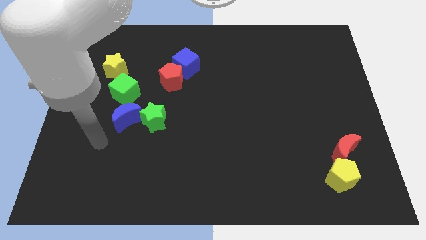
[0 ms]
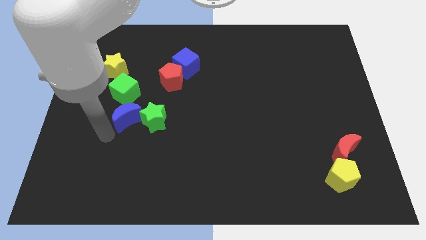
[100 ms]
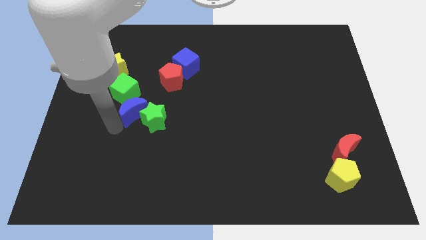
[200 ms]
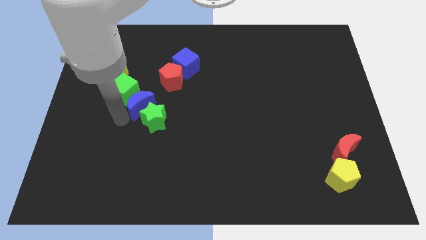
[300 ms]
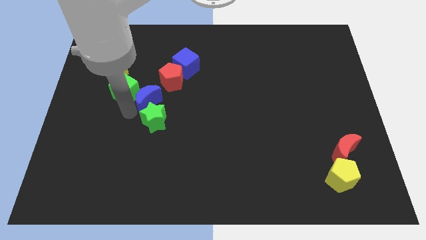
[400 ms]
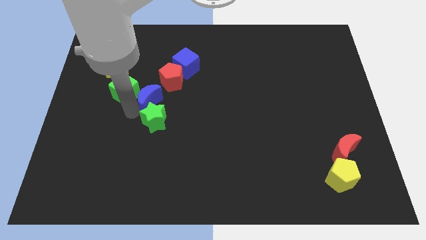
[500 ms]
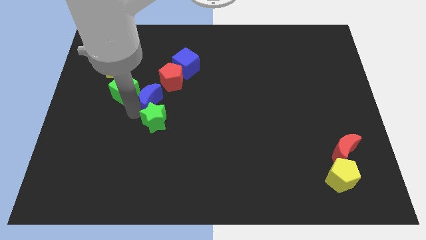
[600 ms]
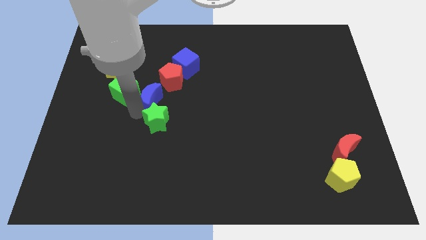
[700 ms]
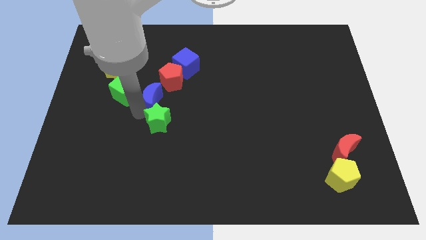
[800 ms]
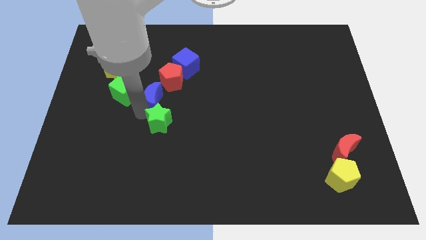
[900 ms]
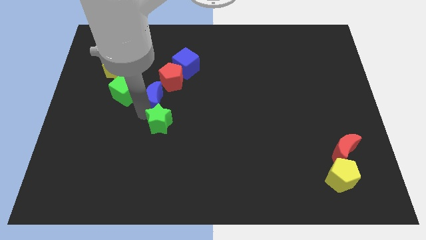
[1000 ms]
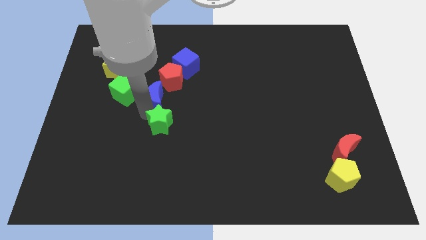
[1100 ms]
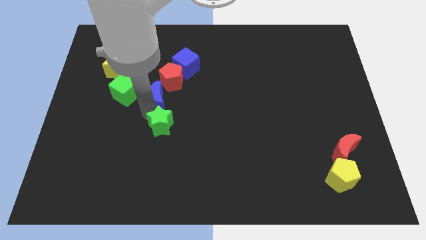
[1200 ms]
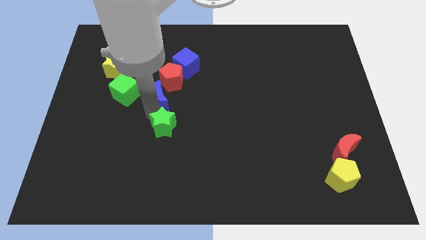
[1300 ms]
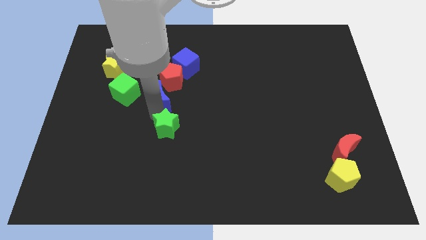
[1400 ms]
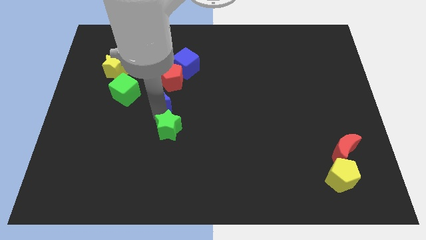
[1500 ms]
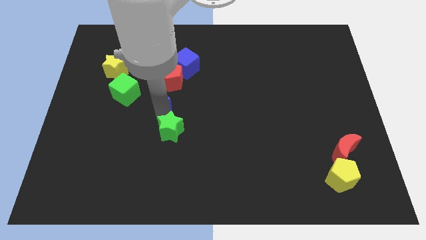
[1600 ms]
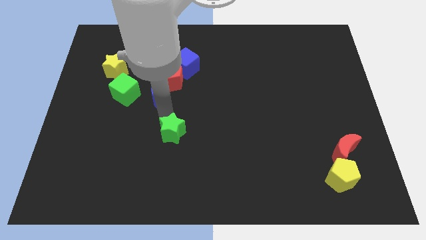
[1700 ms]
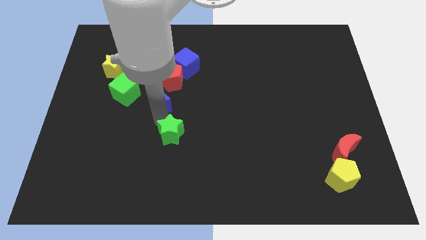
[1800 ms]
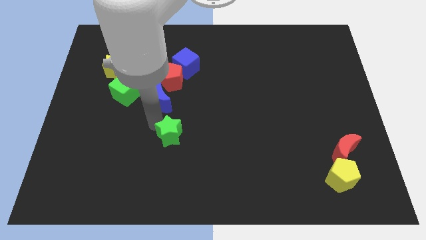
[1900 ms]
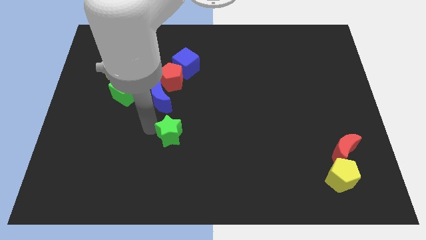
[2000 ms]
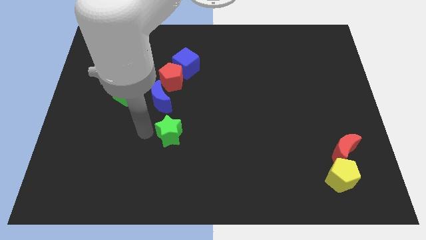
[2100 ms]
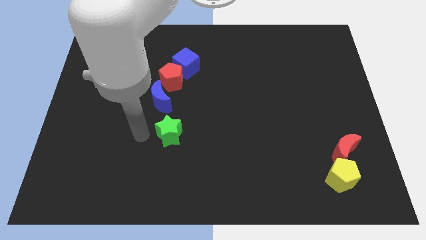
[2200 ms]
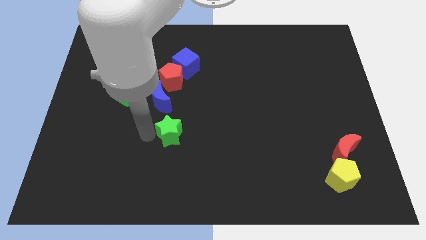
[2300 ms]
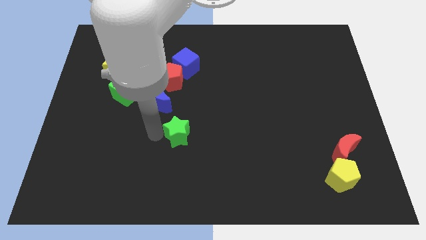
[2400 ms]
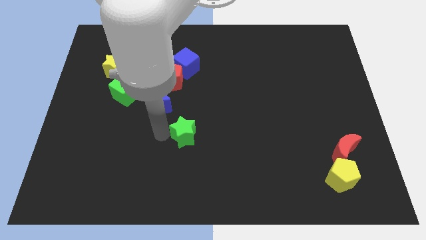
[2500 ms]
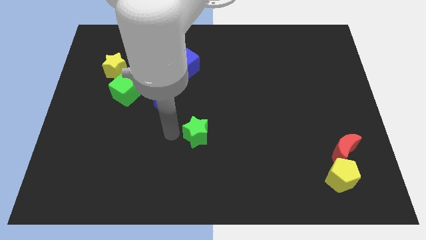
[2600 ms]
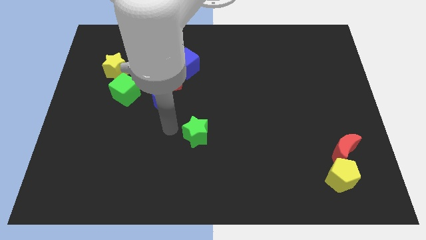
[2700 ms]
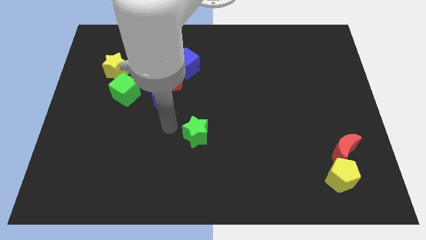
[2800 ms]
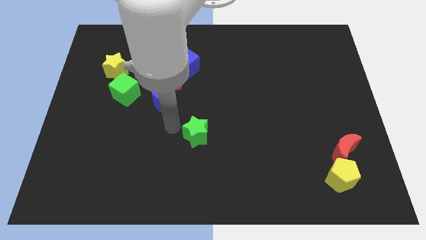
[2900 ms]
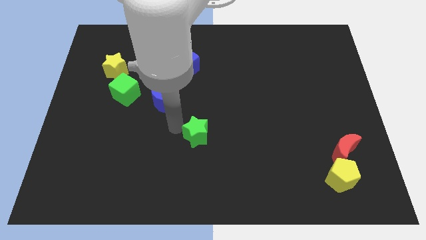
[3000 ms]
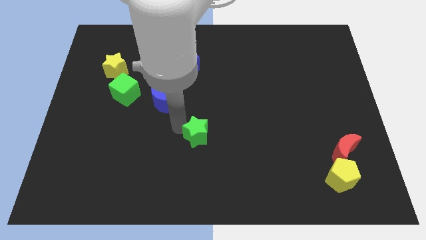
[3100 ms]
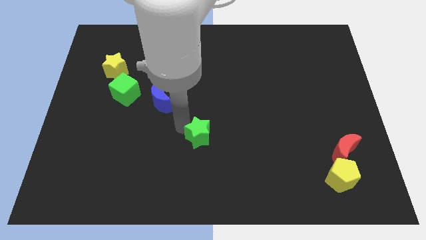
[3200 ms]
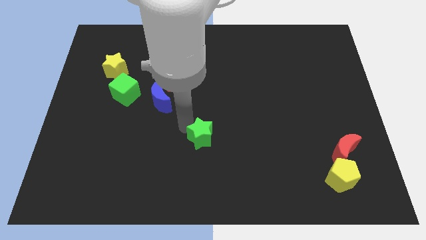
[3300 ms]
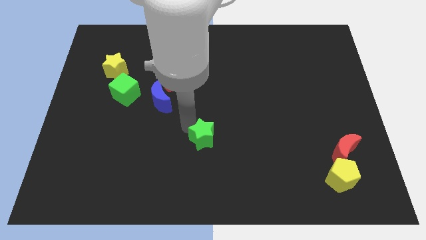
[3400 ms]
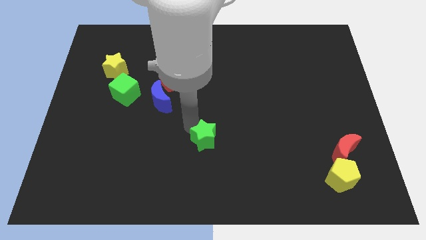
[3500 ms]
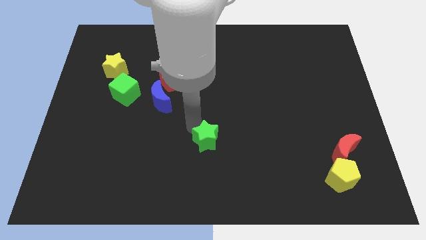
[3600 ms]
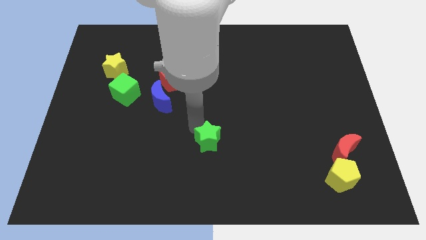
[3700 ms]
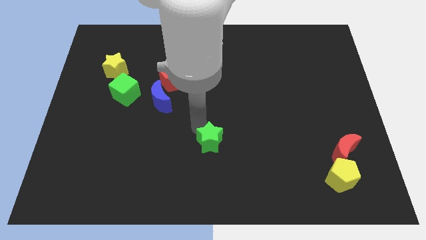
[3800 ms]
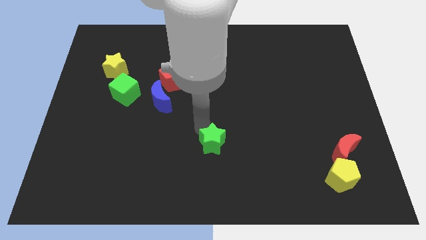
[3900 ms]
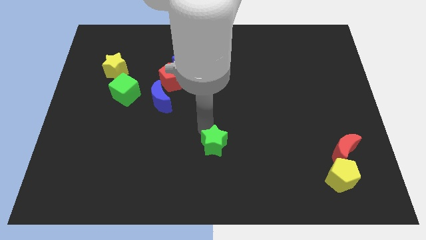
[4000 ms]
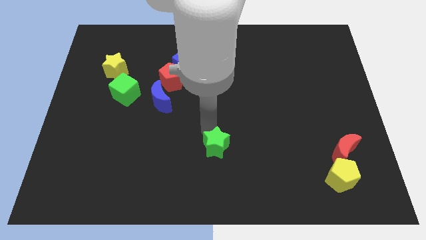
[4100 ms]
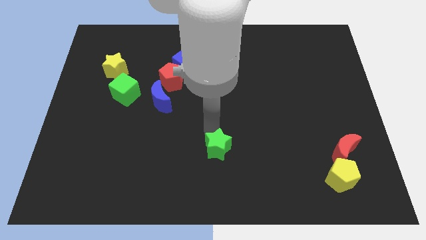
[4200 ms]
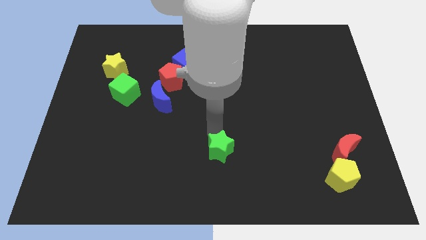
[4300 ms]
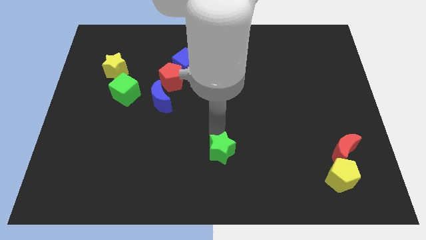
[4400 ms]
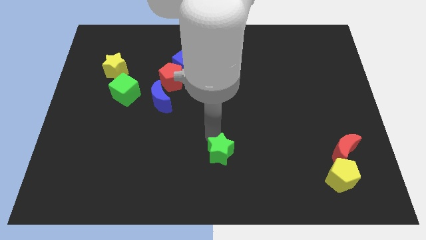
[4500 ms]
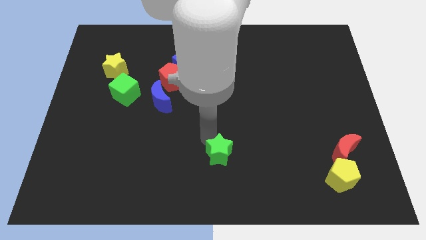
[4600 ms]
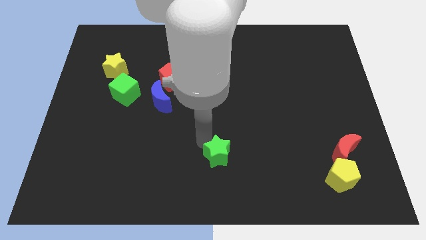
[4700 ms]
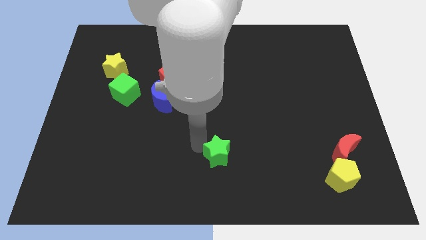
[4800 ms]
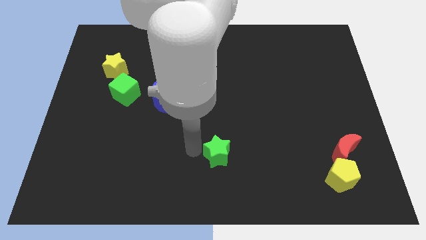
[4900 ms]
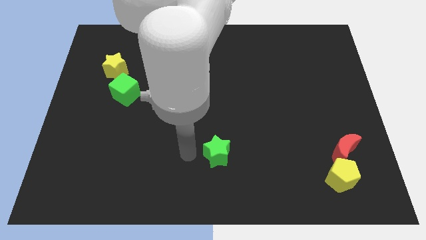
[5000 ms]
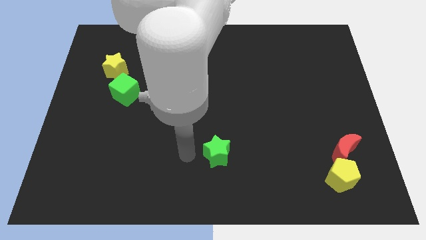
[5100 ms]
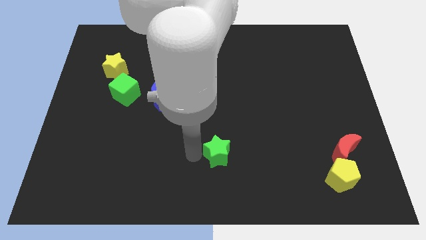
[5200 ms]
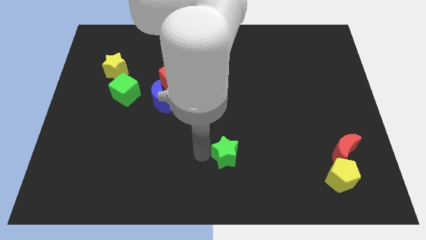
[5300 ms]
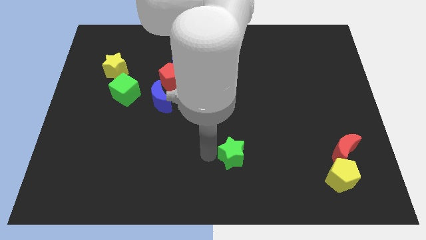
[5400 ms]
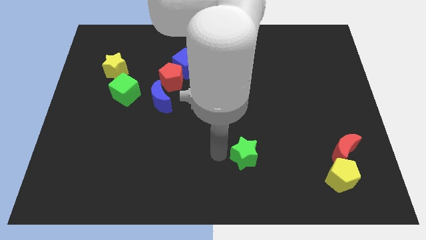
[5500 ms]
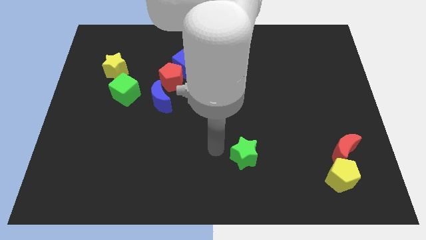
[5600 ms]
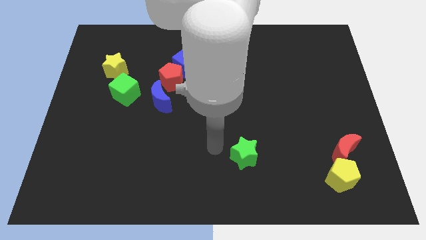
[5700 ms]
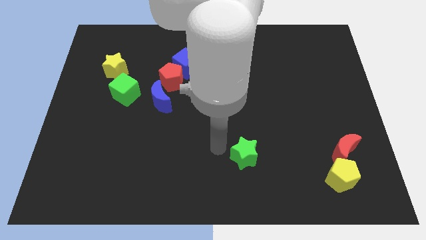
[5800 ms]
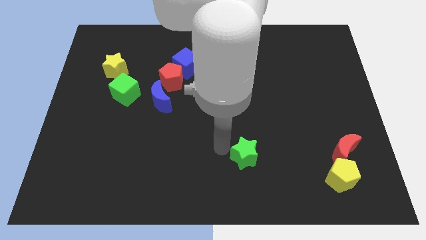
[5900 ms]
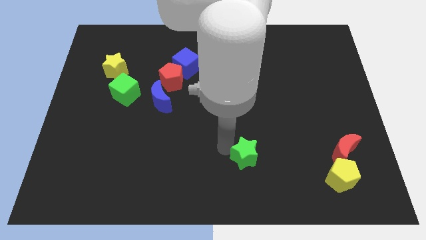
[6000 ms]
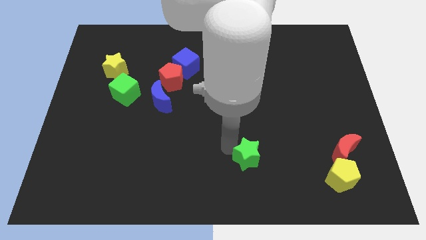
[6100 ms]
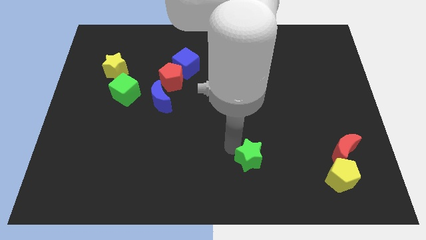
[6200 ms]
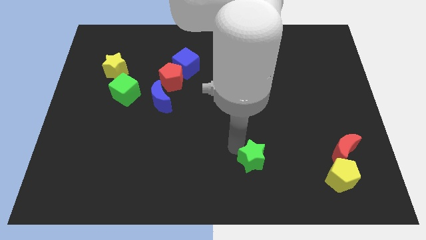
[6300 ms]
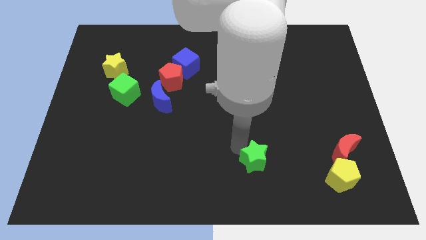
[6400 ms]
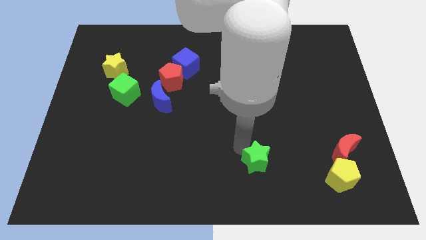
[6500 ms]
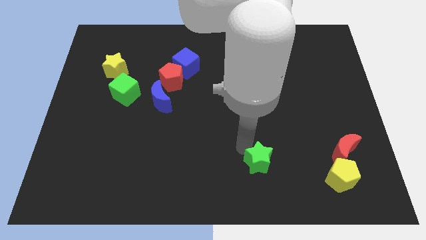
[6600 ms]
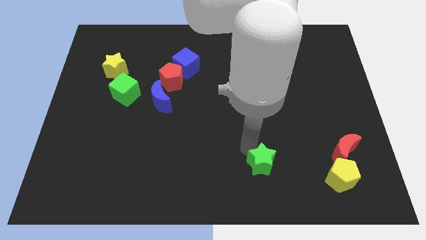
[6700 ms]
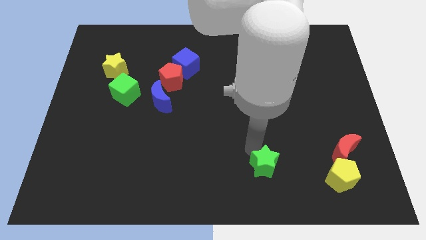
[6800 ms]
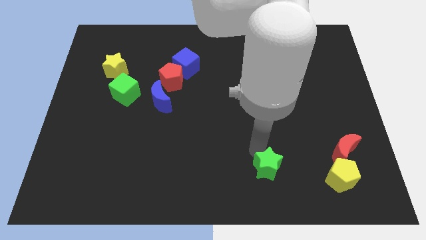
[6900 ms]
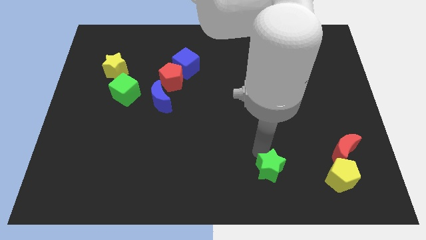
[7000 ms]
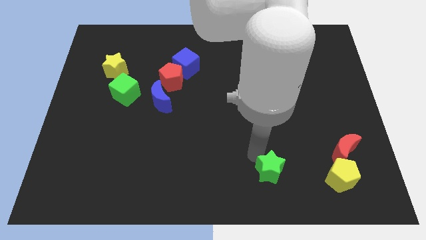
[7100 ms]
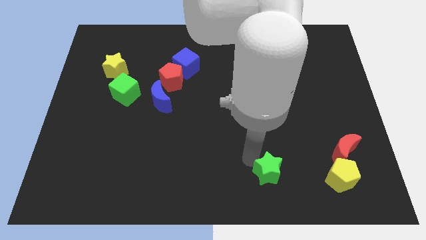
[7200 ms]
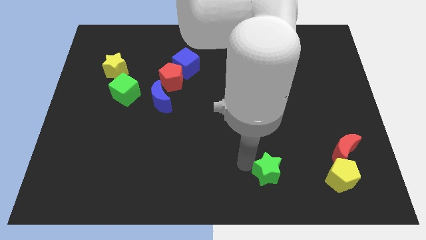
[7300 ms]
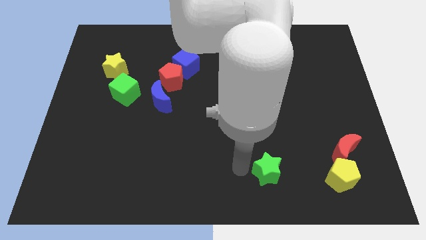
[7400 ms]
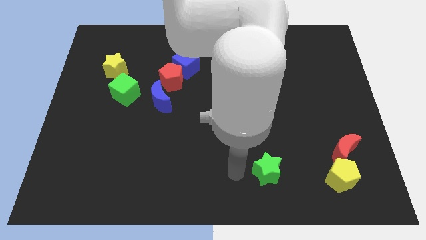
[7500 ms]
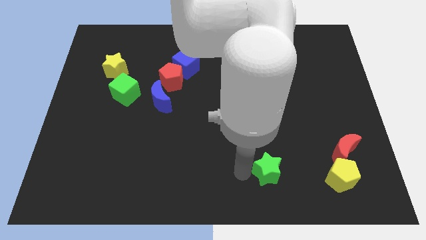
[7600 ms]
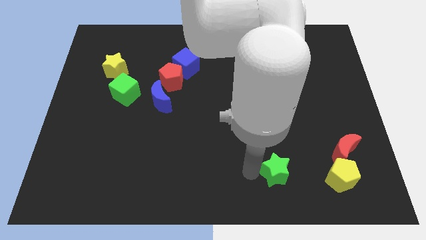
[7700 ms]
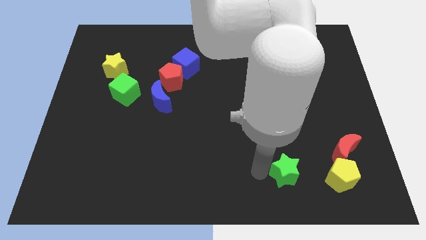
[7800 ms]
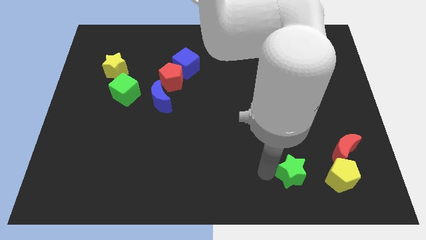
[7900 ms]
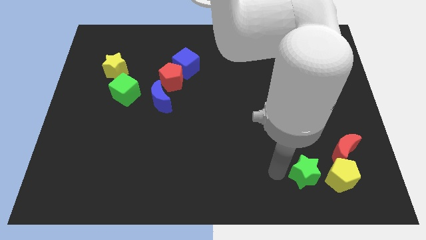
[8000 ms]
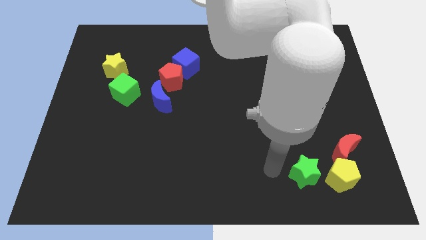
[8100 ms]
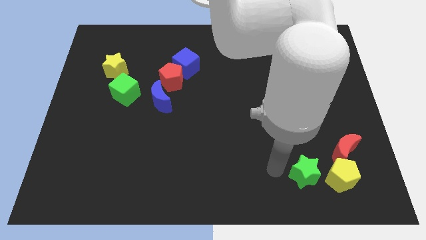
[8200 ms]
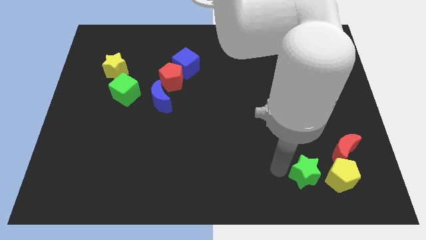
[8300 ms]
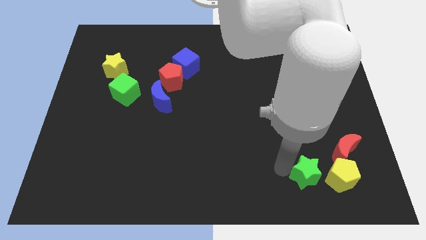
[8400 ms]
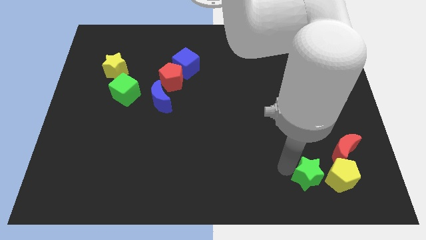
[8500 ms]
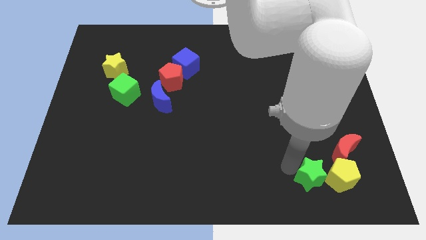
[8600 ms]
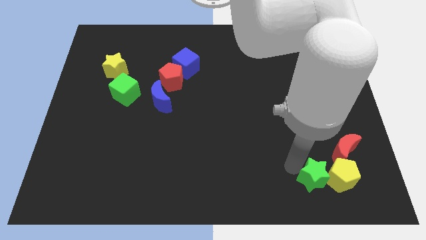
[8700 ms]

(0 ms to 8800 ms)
push the green star next to the yellow pentagon
